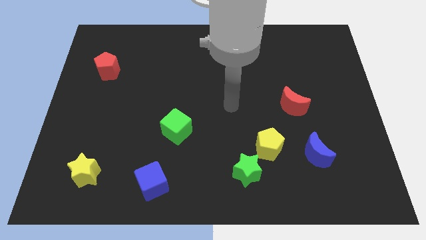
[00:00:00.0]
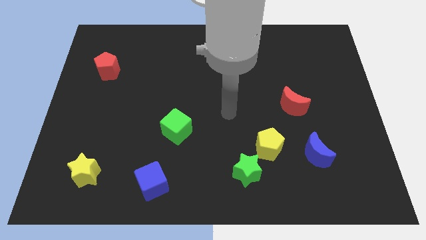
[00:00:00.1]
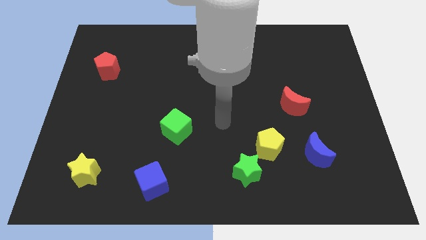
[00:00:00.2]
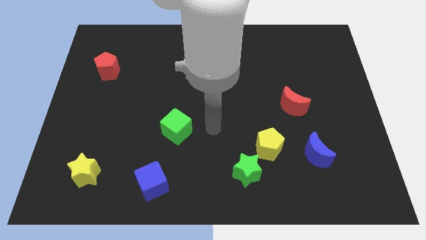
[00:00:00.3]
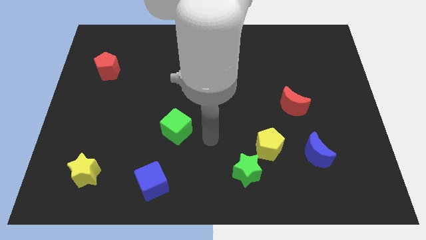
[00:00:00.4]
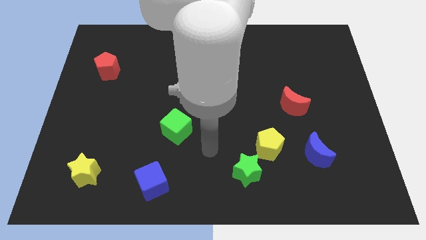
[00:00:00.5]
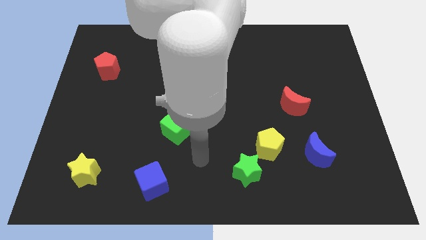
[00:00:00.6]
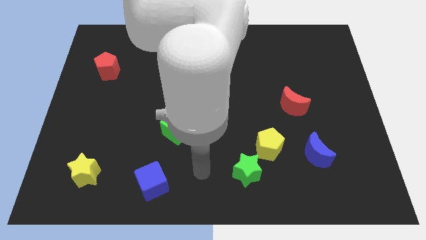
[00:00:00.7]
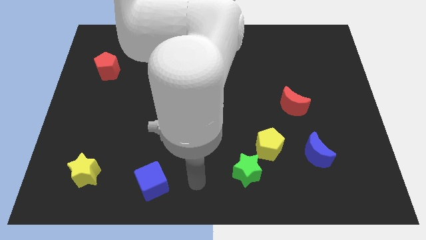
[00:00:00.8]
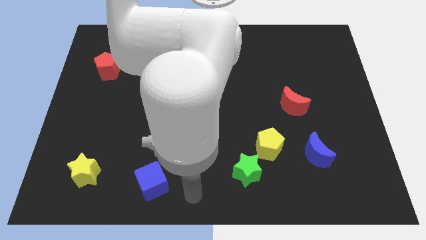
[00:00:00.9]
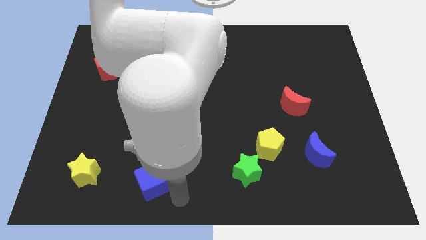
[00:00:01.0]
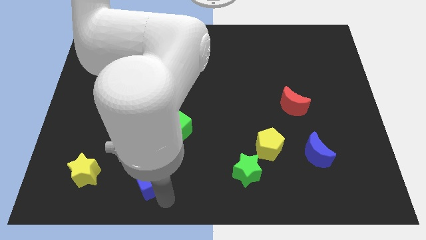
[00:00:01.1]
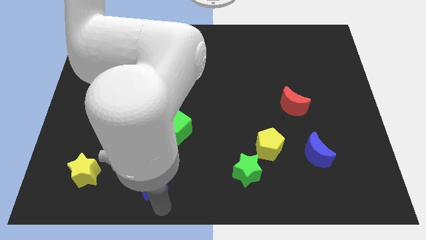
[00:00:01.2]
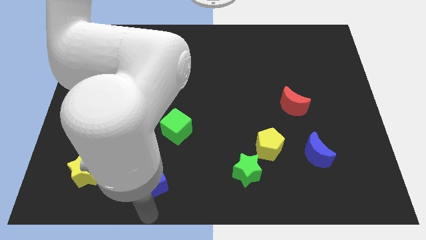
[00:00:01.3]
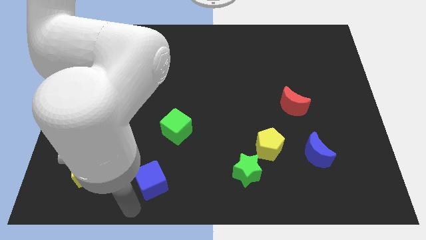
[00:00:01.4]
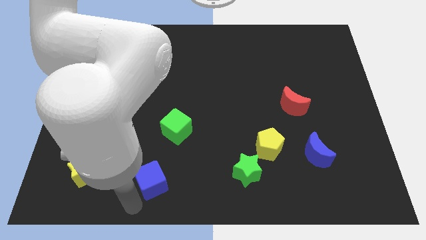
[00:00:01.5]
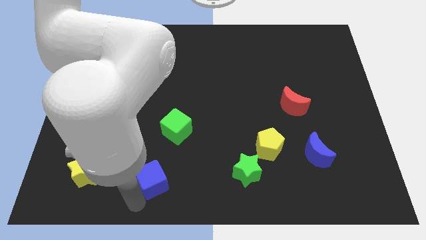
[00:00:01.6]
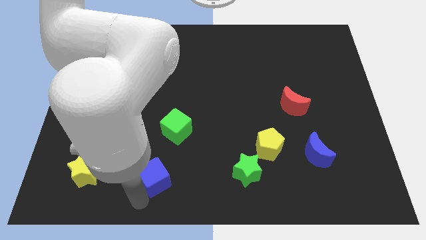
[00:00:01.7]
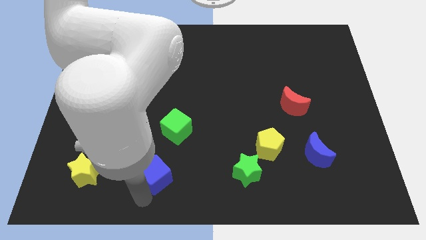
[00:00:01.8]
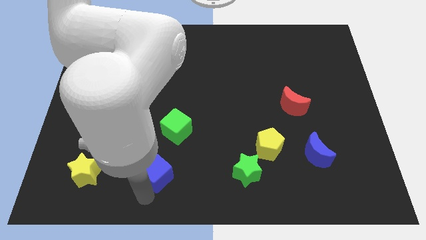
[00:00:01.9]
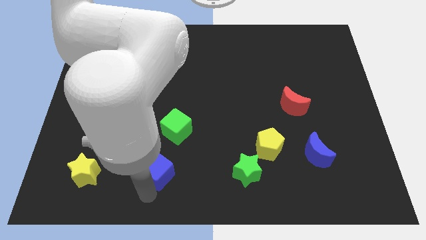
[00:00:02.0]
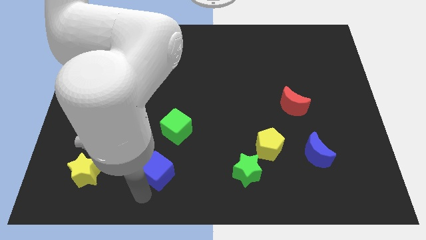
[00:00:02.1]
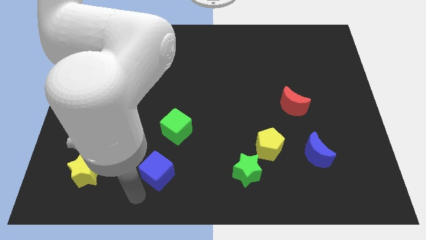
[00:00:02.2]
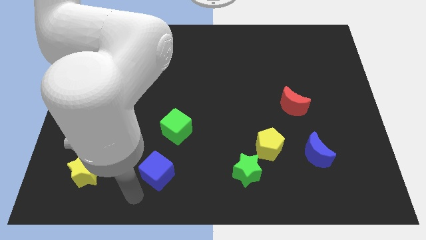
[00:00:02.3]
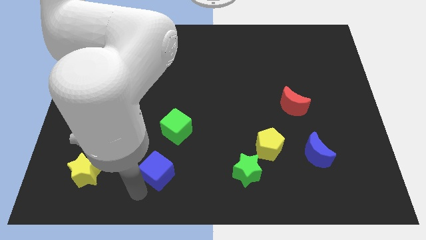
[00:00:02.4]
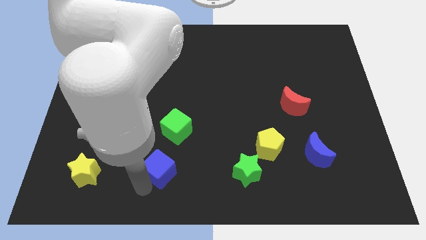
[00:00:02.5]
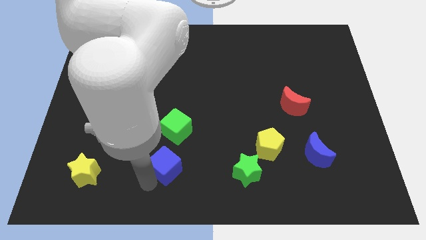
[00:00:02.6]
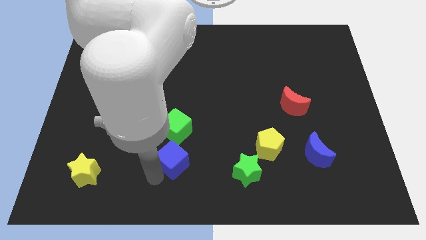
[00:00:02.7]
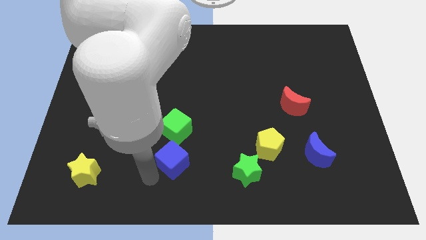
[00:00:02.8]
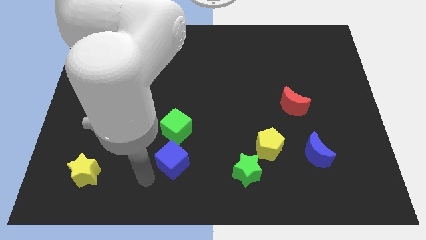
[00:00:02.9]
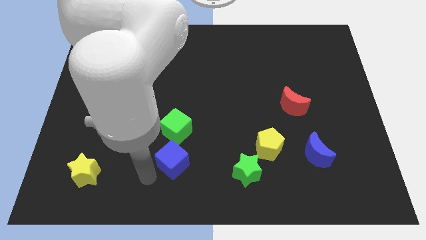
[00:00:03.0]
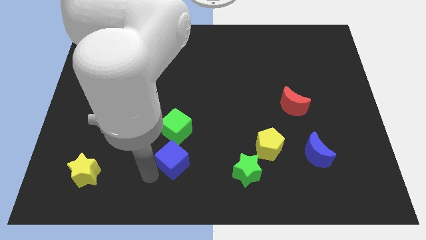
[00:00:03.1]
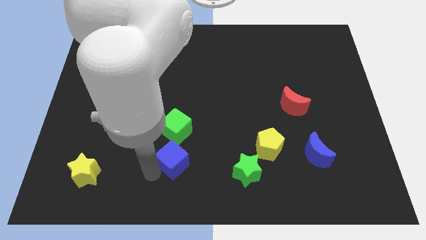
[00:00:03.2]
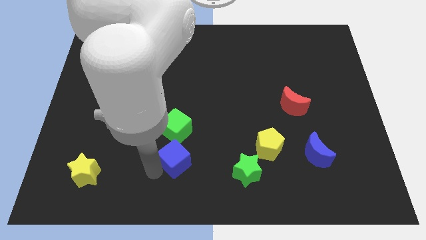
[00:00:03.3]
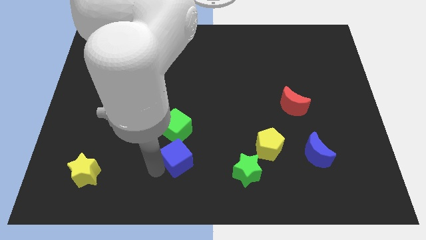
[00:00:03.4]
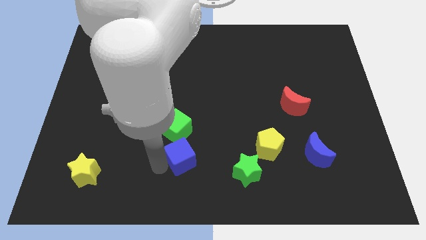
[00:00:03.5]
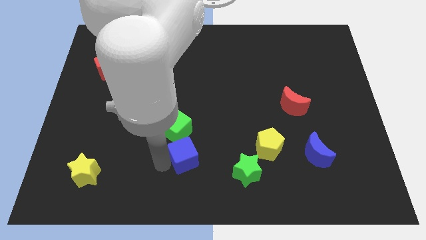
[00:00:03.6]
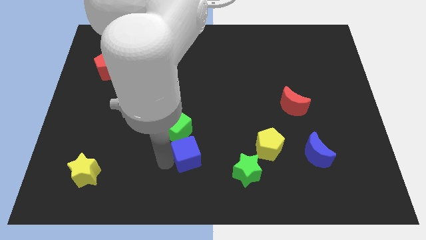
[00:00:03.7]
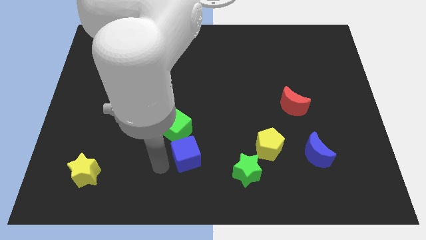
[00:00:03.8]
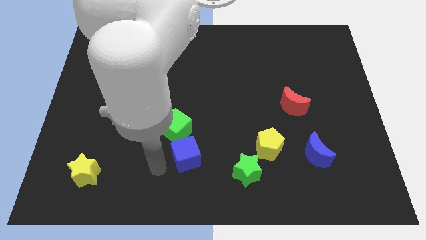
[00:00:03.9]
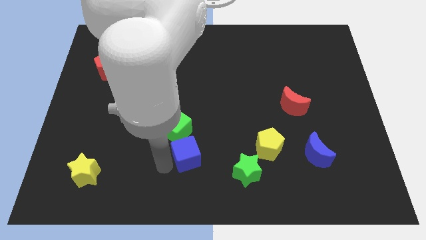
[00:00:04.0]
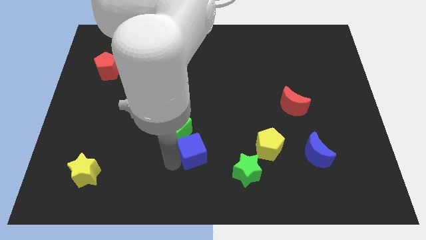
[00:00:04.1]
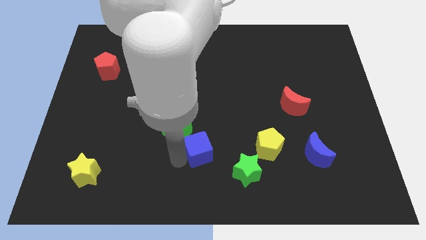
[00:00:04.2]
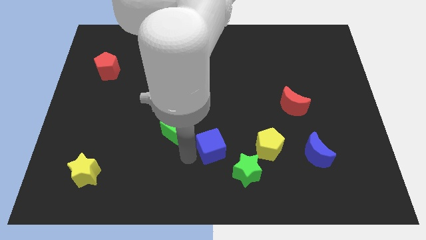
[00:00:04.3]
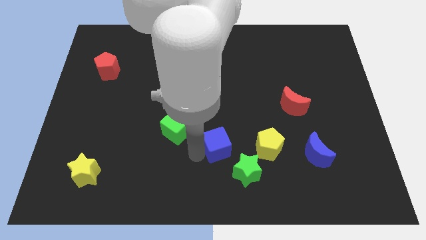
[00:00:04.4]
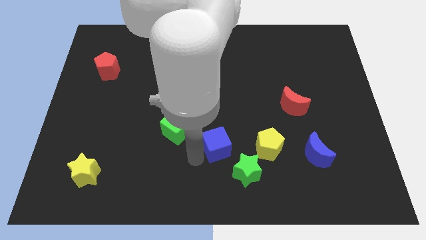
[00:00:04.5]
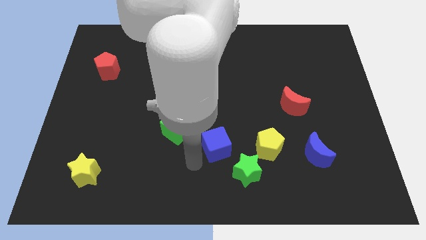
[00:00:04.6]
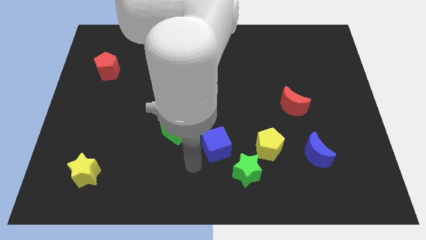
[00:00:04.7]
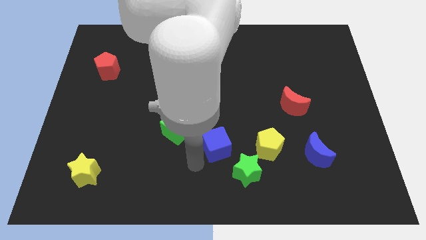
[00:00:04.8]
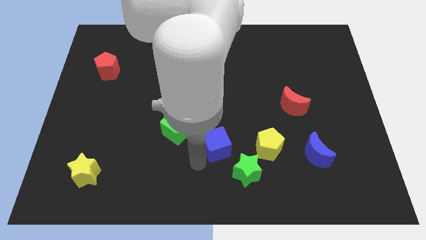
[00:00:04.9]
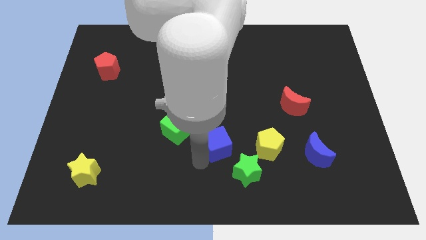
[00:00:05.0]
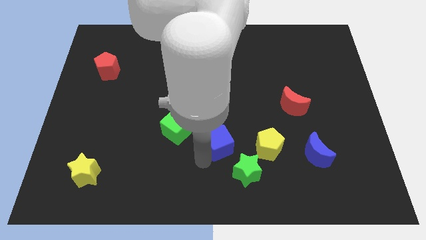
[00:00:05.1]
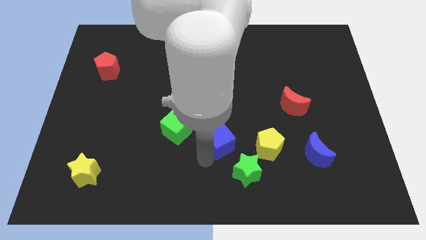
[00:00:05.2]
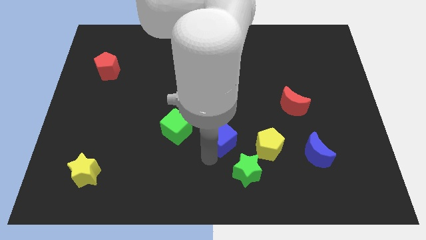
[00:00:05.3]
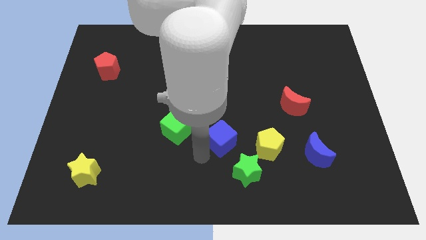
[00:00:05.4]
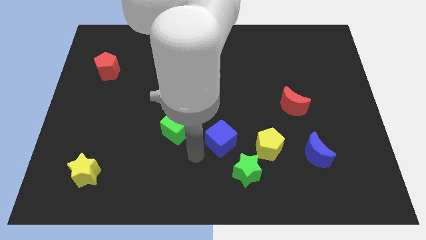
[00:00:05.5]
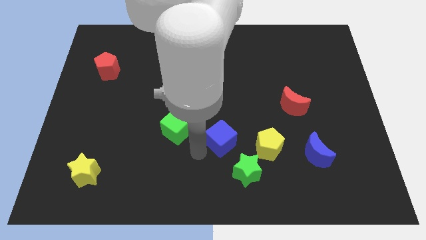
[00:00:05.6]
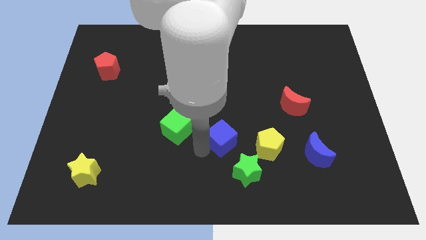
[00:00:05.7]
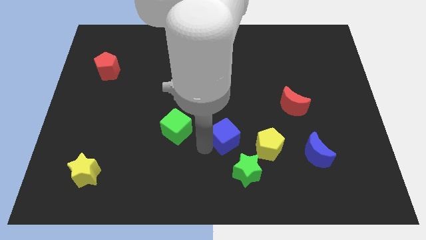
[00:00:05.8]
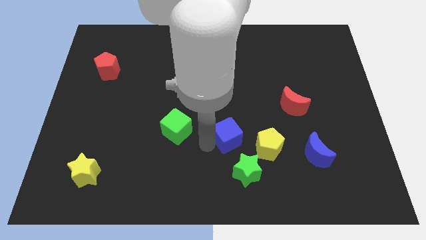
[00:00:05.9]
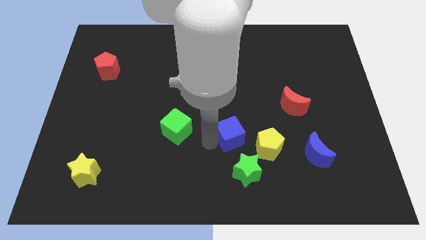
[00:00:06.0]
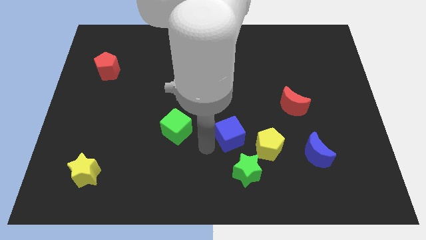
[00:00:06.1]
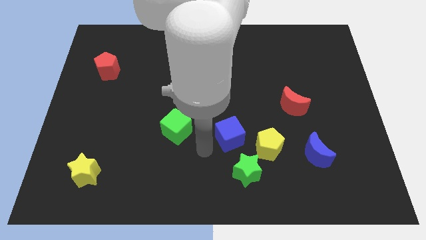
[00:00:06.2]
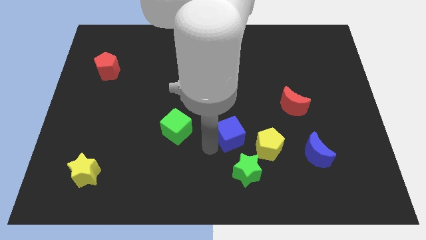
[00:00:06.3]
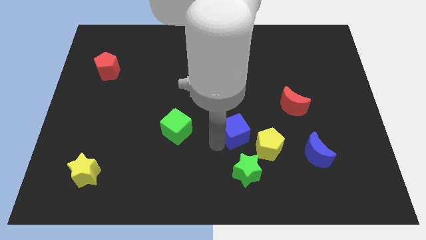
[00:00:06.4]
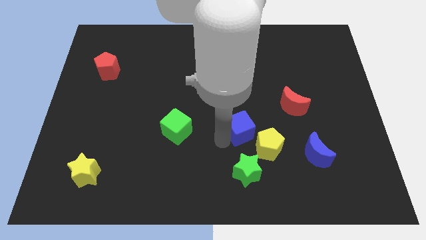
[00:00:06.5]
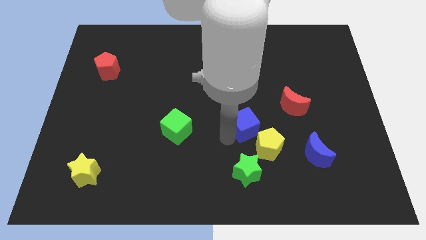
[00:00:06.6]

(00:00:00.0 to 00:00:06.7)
put the blue cube above the yellow pentagon
